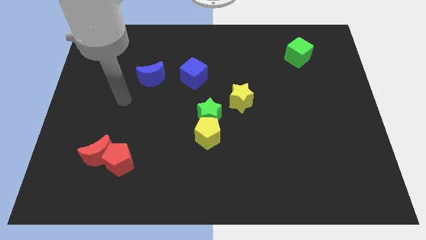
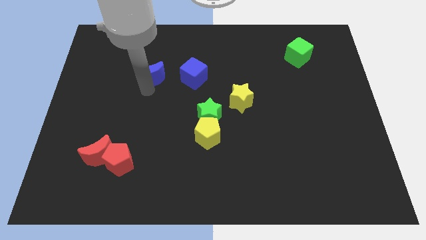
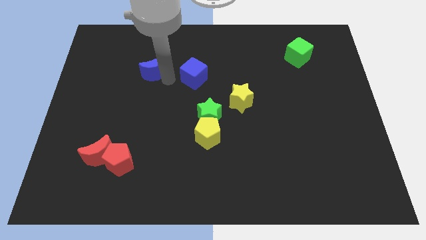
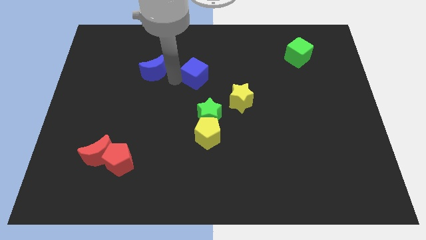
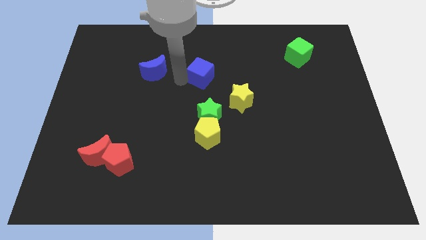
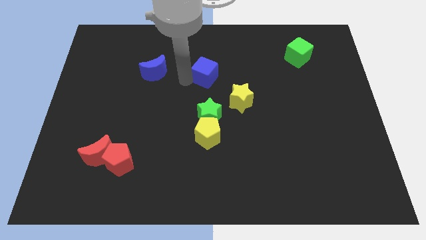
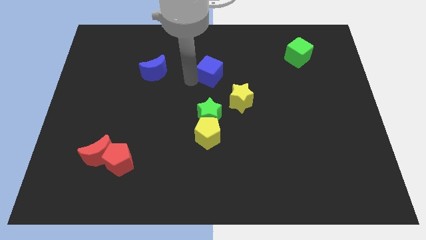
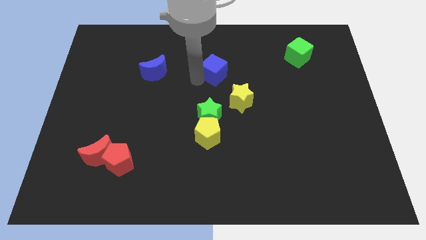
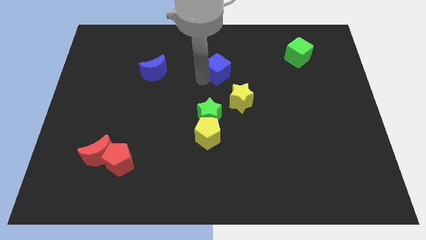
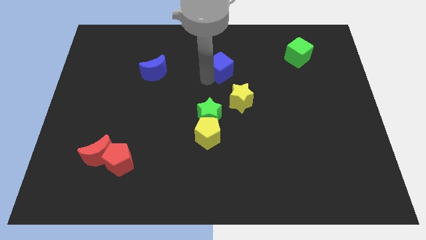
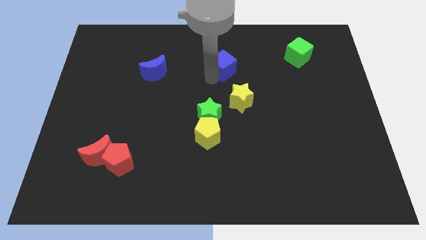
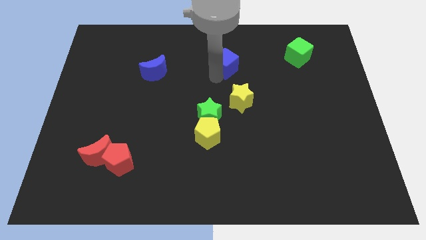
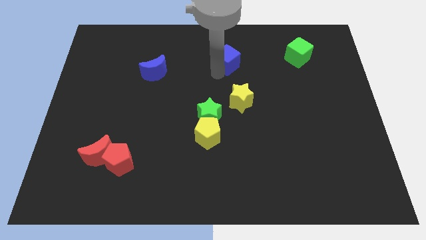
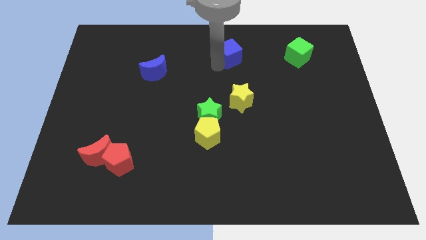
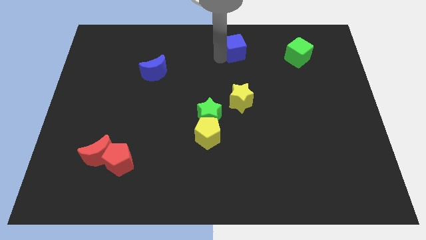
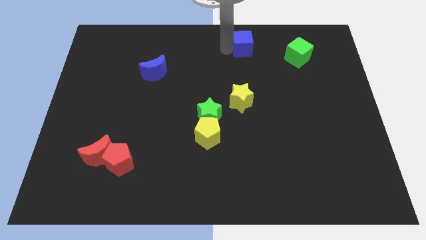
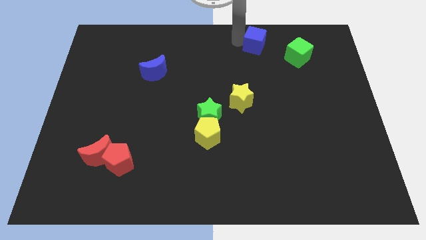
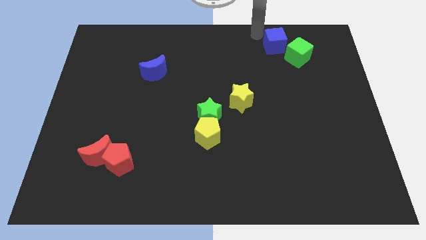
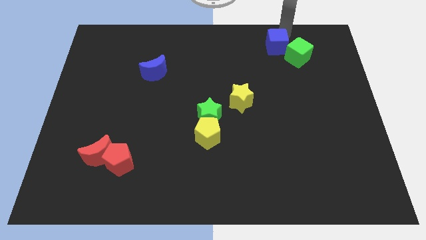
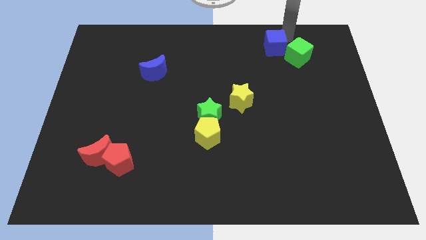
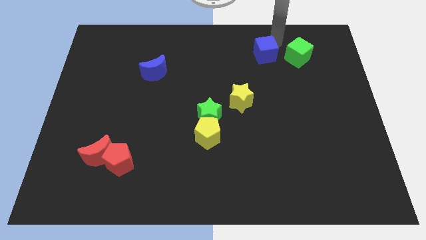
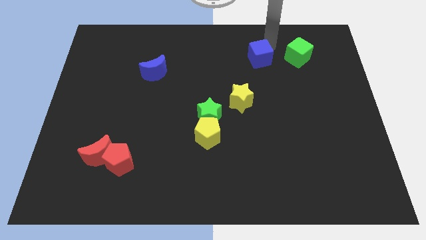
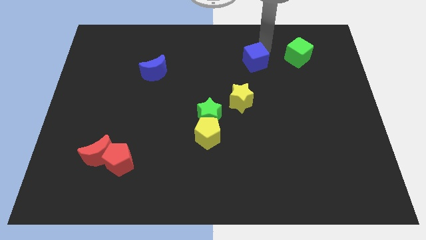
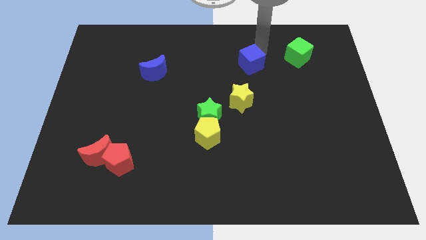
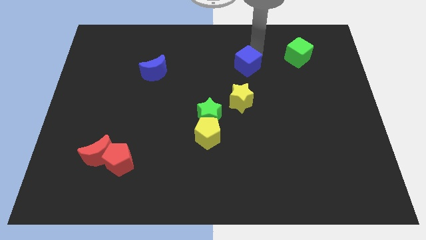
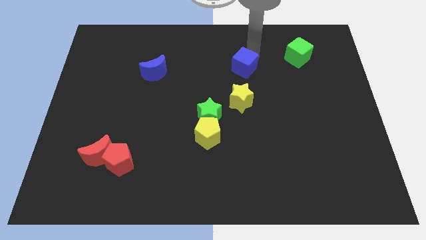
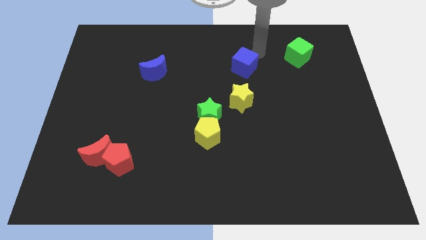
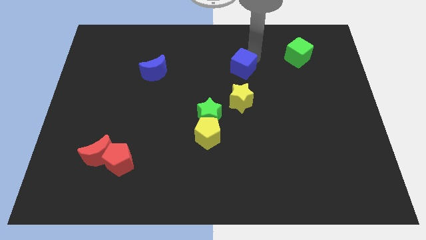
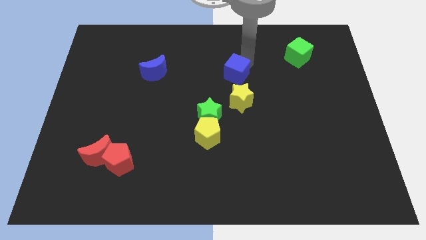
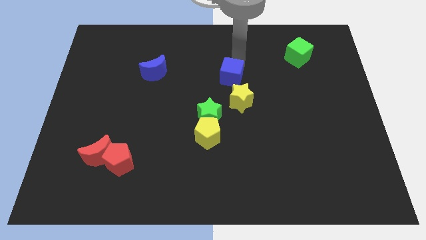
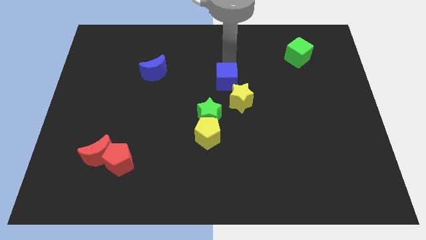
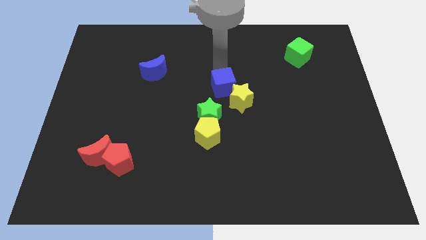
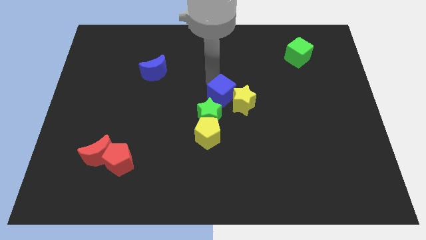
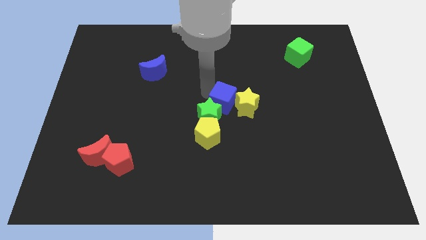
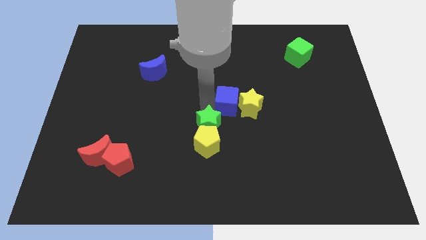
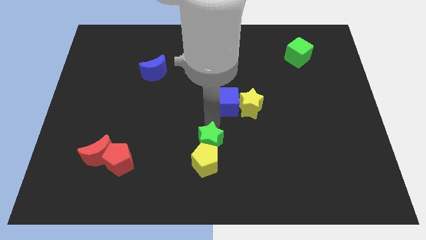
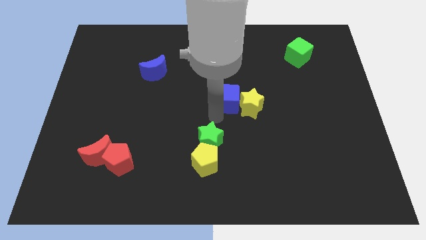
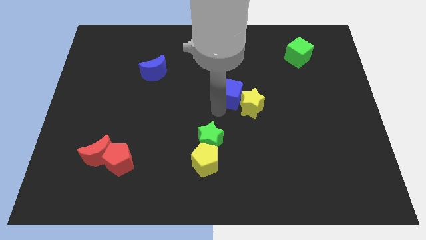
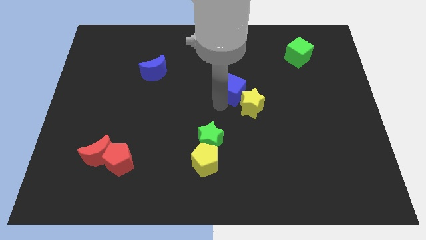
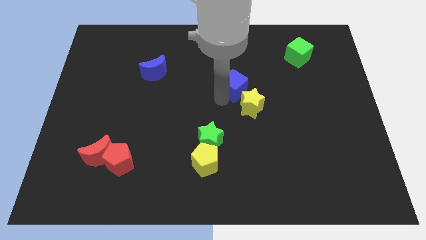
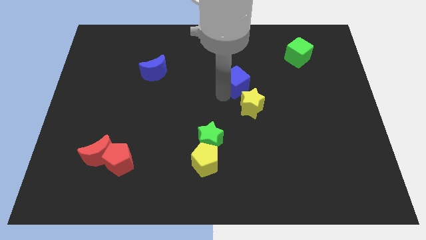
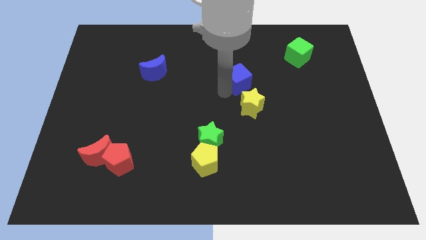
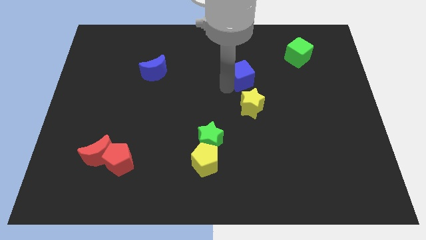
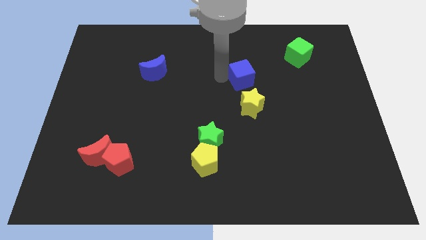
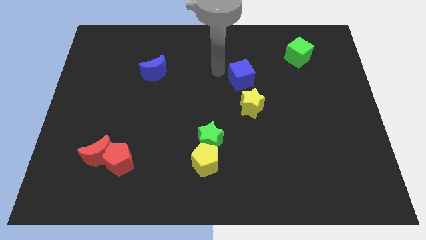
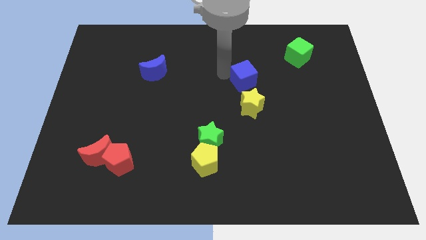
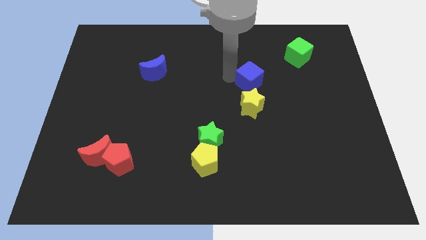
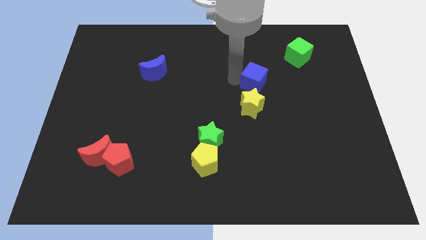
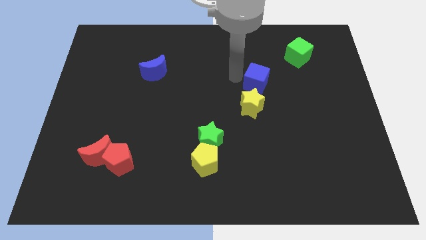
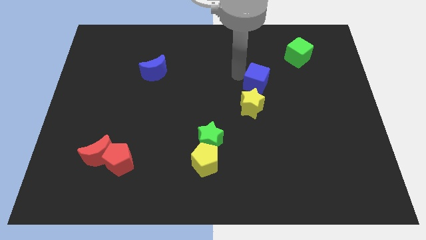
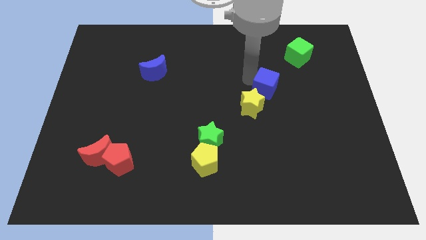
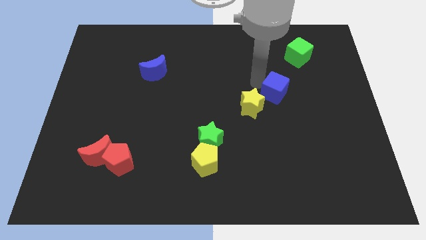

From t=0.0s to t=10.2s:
put the blue cube to the right of the yellow star
